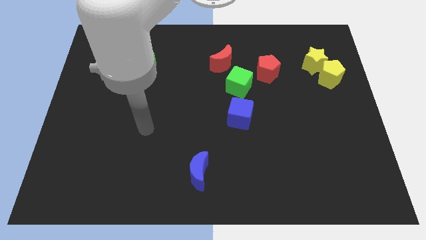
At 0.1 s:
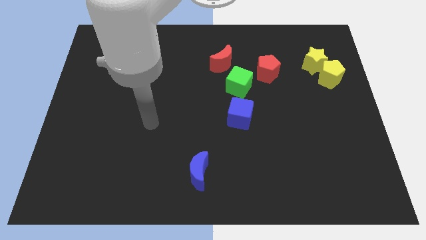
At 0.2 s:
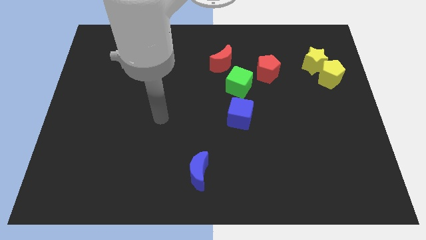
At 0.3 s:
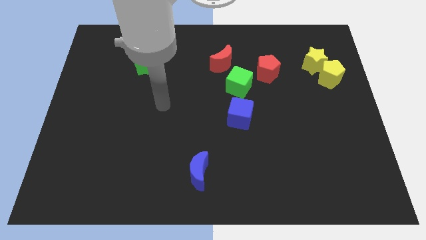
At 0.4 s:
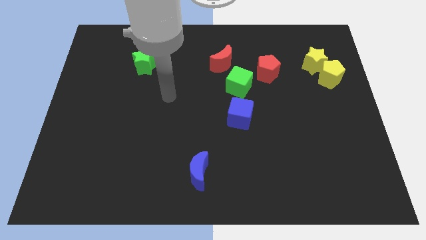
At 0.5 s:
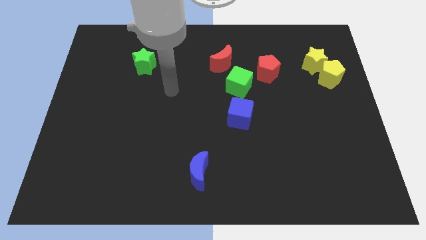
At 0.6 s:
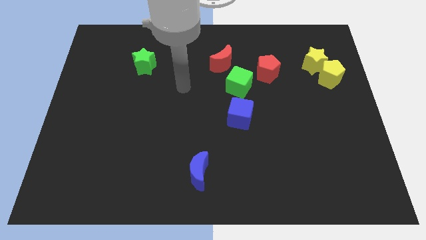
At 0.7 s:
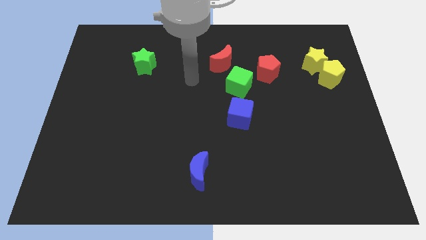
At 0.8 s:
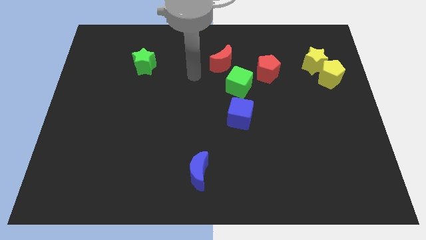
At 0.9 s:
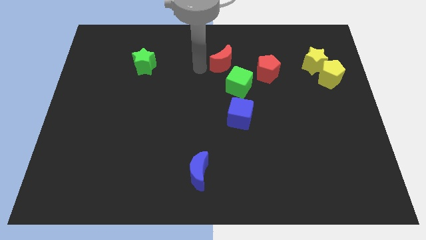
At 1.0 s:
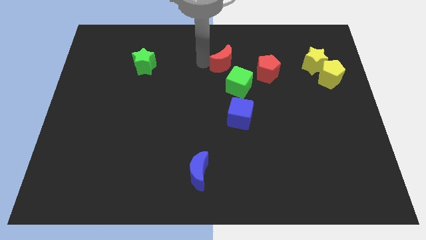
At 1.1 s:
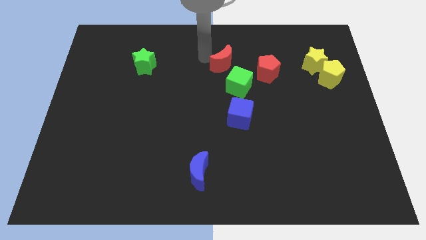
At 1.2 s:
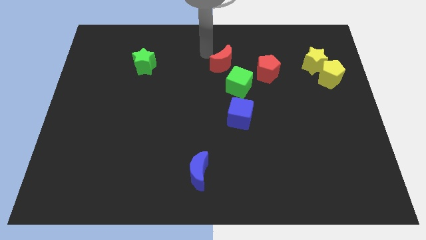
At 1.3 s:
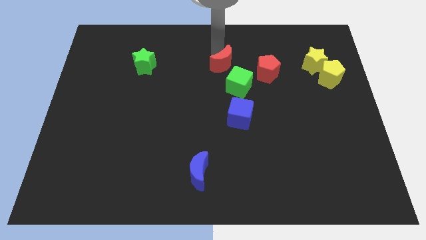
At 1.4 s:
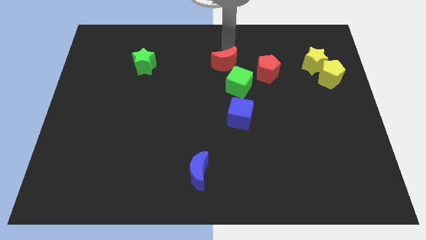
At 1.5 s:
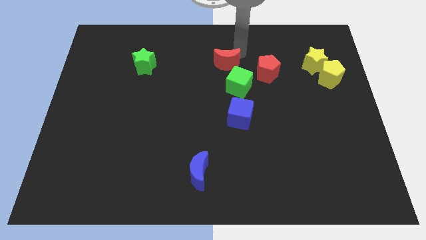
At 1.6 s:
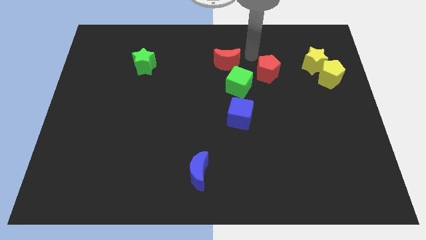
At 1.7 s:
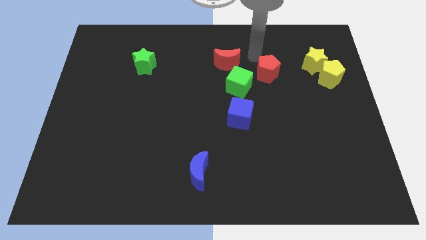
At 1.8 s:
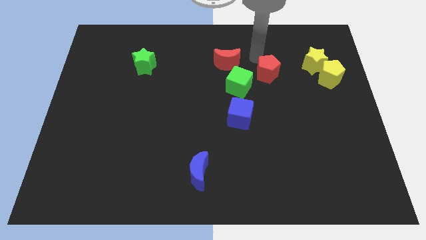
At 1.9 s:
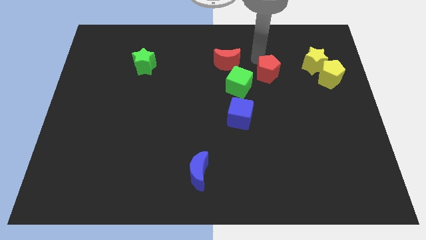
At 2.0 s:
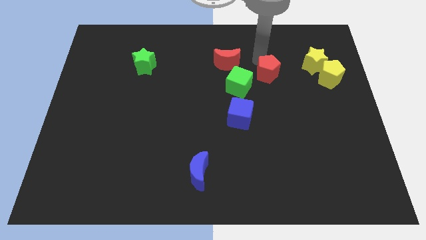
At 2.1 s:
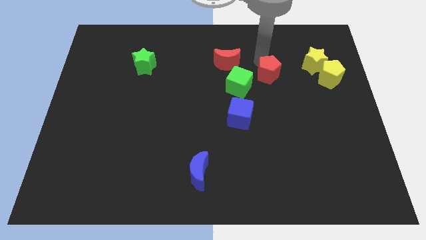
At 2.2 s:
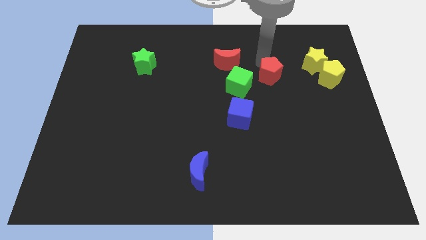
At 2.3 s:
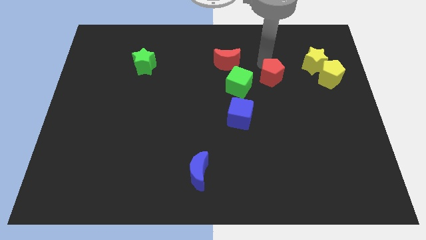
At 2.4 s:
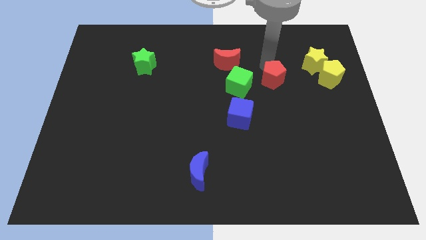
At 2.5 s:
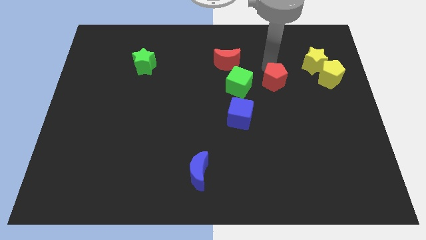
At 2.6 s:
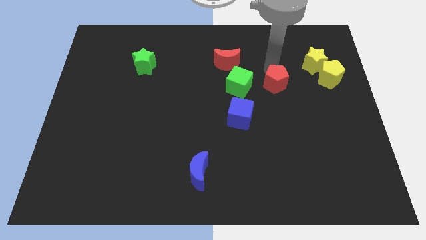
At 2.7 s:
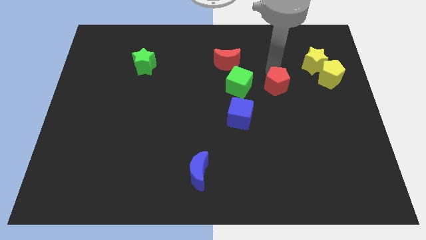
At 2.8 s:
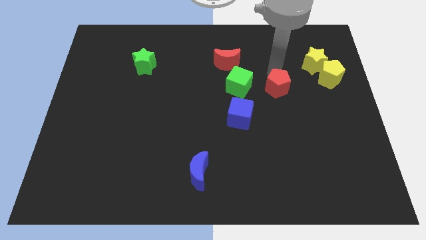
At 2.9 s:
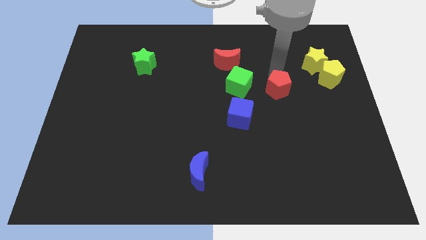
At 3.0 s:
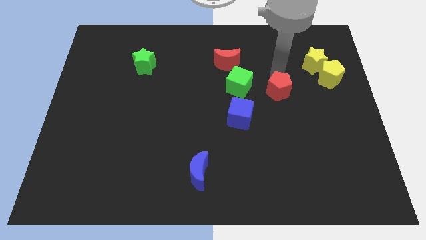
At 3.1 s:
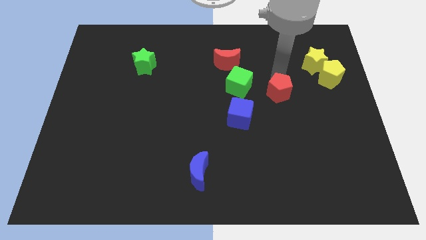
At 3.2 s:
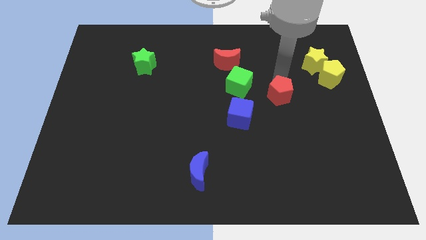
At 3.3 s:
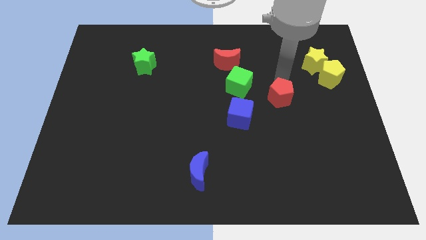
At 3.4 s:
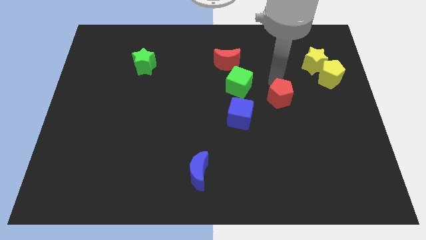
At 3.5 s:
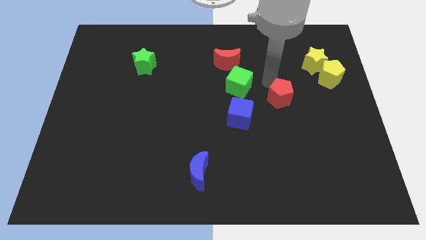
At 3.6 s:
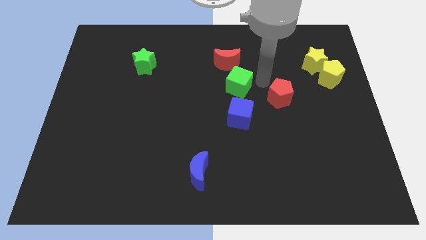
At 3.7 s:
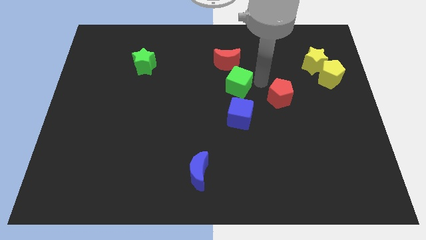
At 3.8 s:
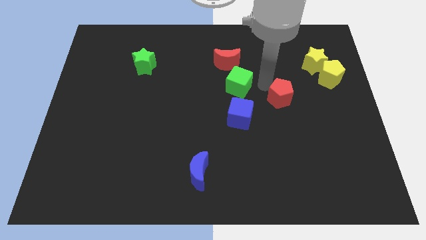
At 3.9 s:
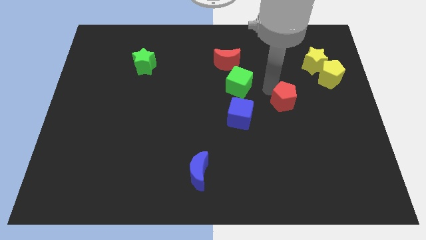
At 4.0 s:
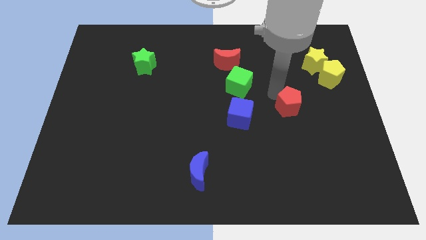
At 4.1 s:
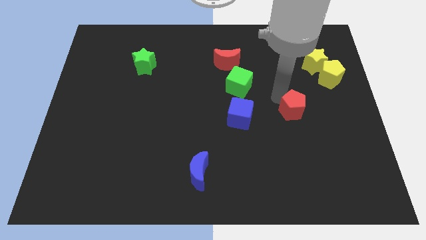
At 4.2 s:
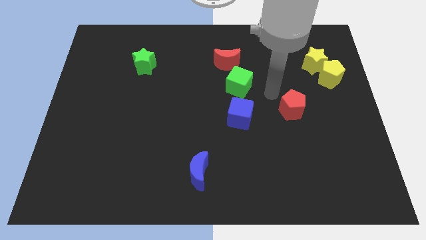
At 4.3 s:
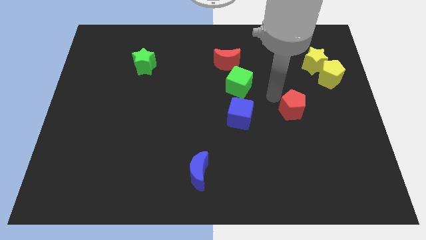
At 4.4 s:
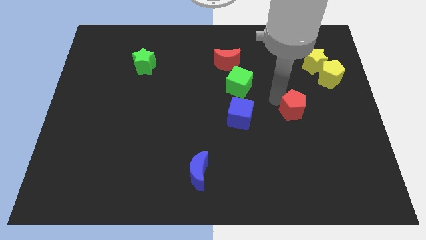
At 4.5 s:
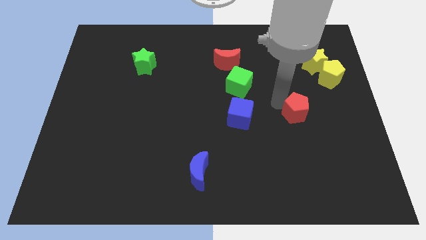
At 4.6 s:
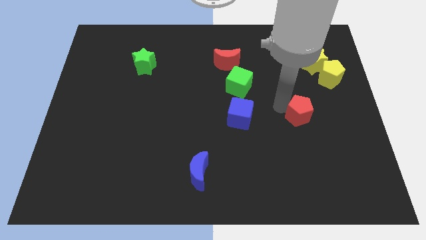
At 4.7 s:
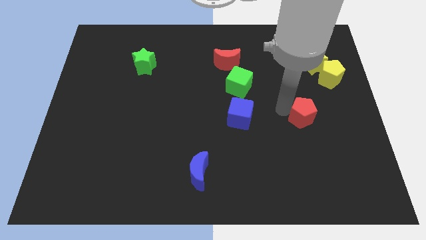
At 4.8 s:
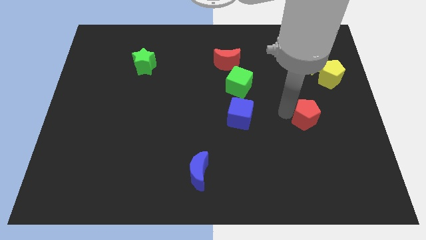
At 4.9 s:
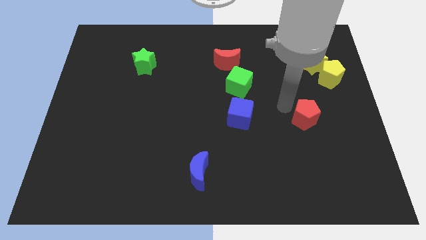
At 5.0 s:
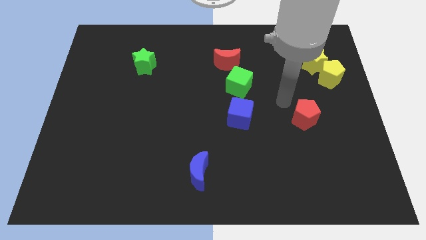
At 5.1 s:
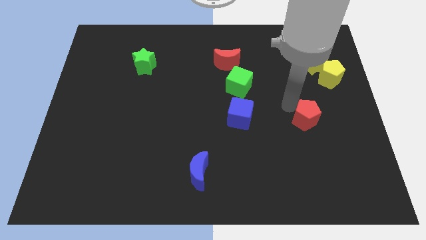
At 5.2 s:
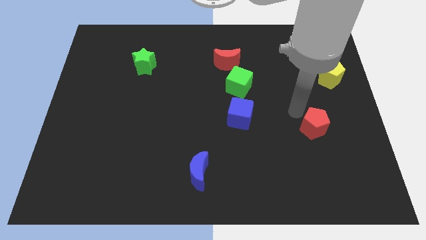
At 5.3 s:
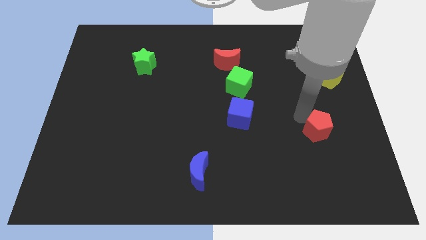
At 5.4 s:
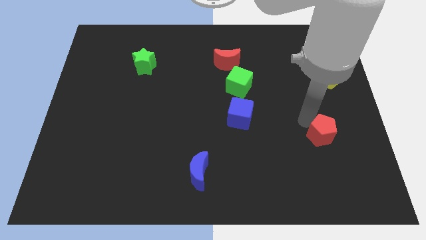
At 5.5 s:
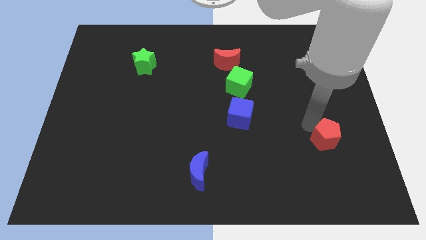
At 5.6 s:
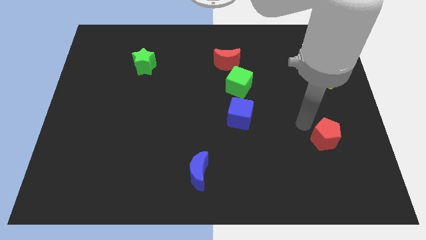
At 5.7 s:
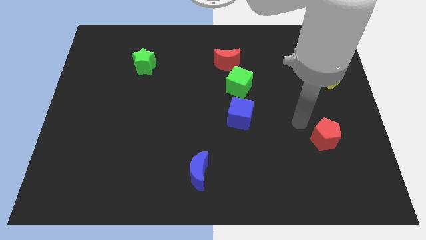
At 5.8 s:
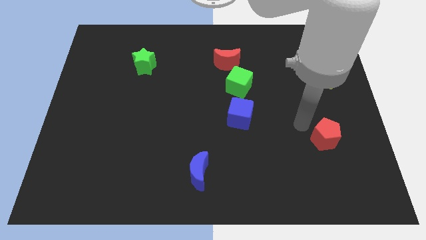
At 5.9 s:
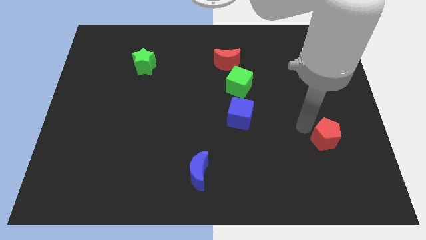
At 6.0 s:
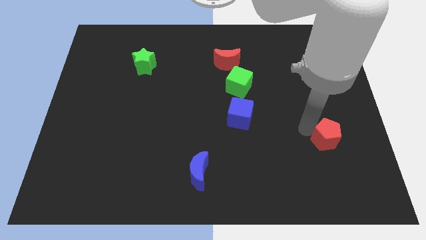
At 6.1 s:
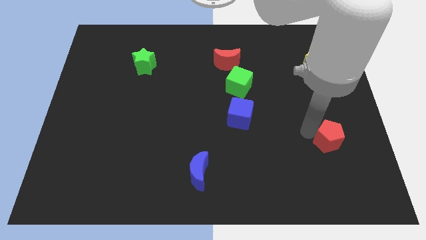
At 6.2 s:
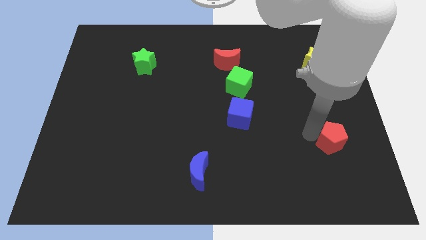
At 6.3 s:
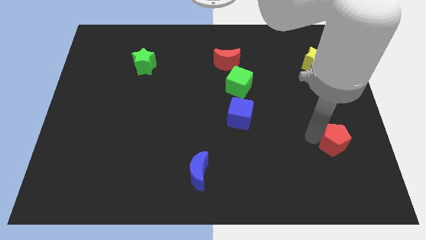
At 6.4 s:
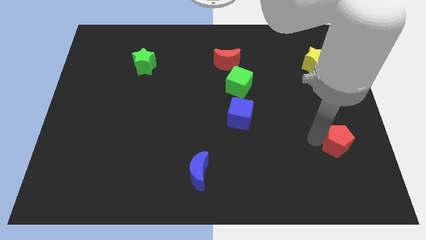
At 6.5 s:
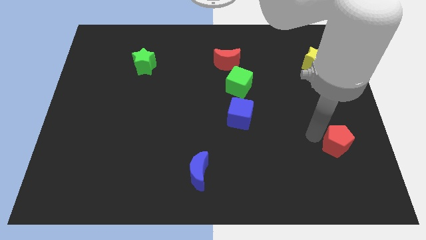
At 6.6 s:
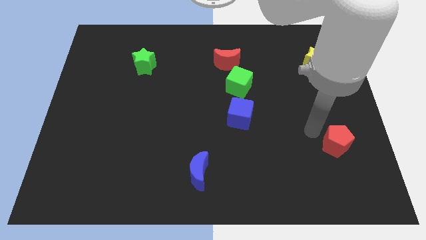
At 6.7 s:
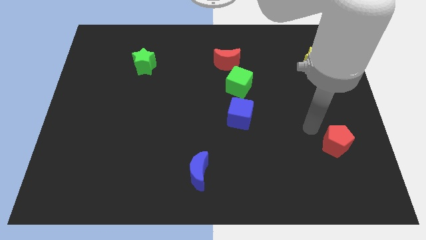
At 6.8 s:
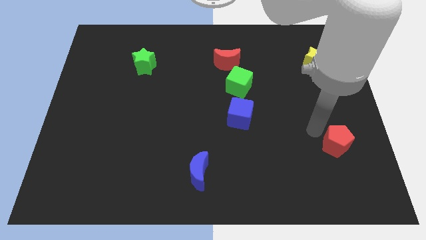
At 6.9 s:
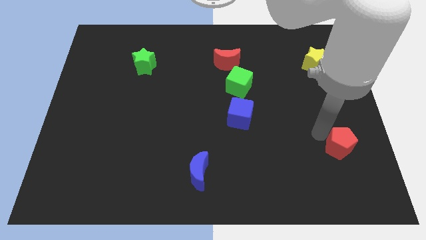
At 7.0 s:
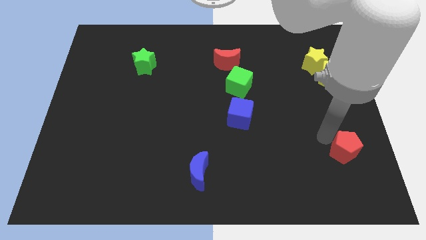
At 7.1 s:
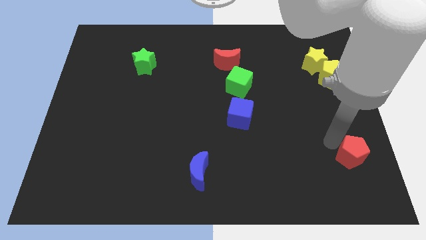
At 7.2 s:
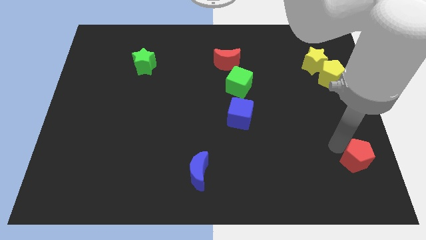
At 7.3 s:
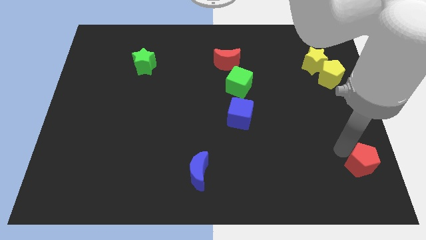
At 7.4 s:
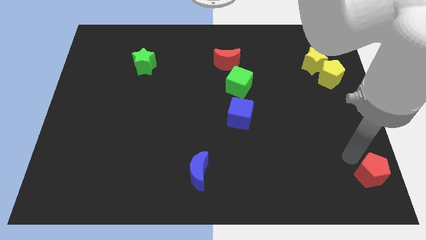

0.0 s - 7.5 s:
move the red pentagon to the bottom right corner
